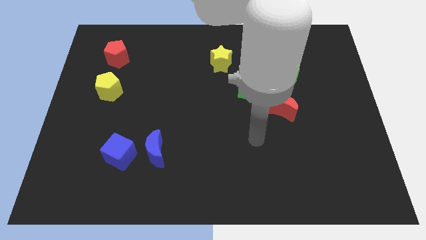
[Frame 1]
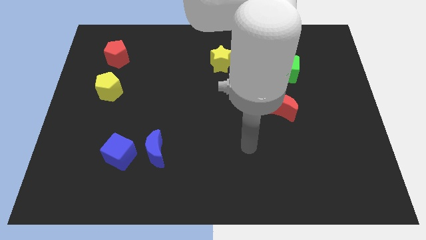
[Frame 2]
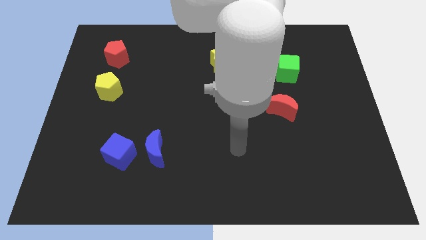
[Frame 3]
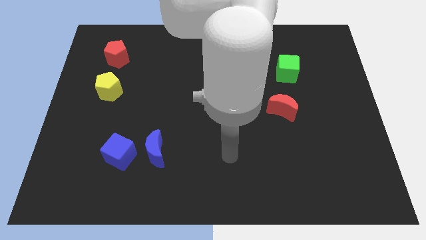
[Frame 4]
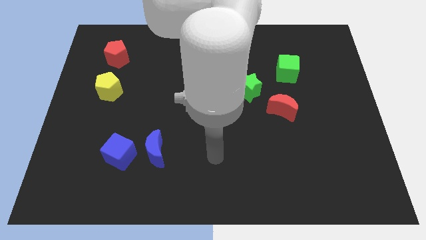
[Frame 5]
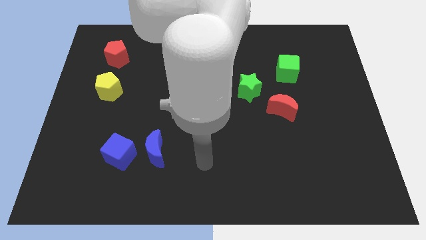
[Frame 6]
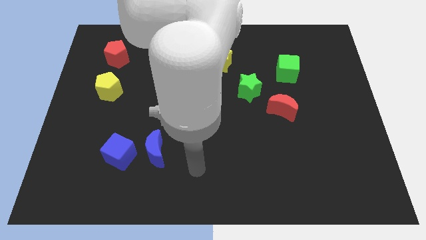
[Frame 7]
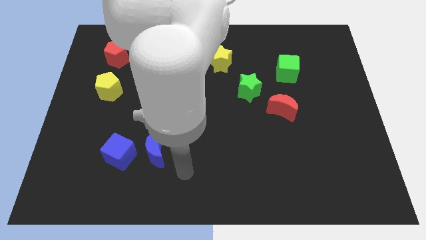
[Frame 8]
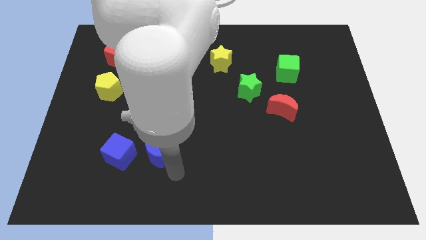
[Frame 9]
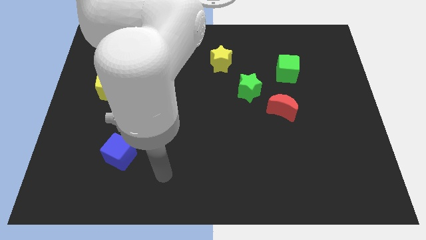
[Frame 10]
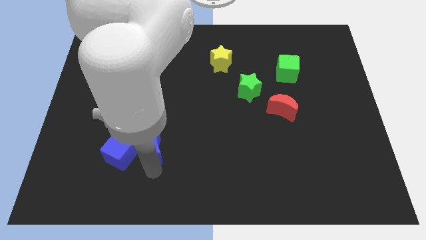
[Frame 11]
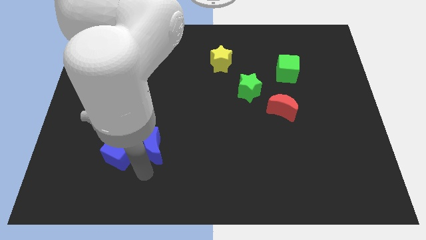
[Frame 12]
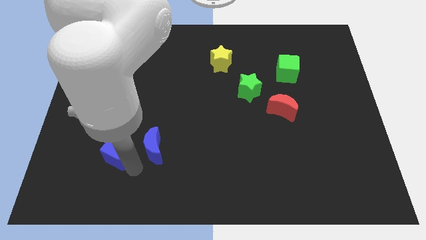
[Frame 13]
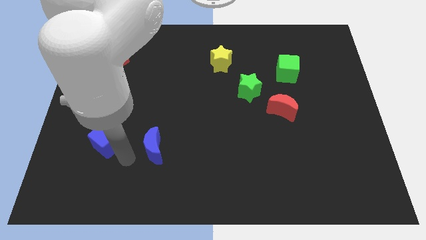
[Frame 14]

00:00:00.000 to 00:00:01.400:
separate the blue moon from the blue cube

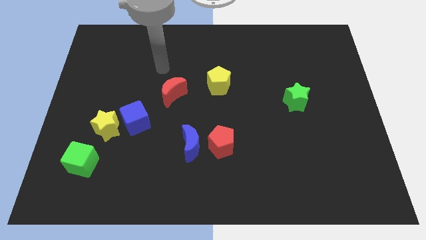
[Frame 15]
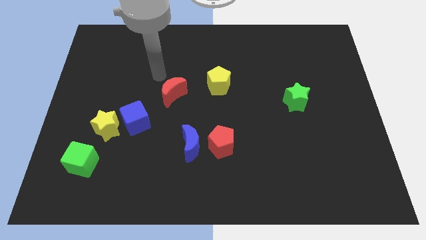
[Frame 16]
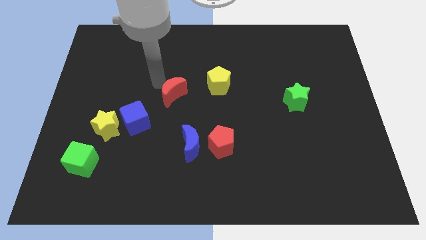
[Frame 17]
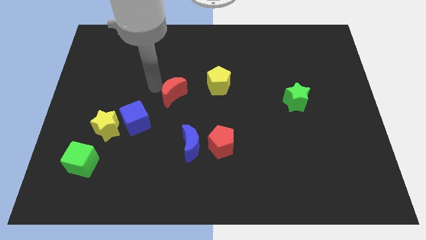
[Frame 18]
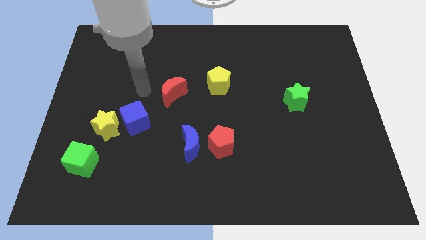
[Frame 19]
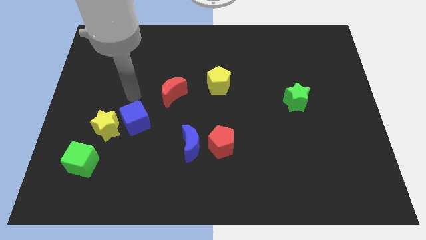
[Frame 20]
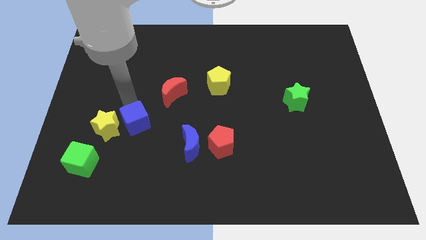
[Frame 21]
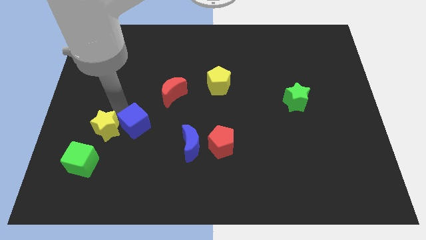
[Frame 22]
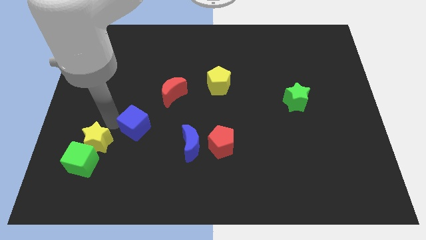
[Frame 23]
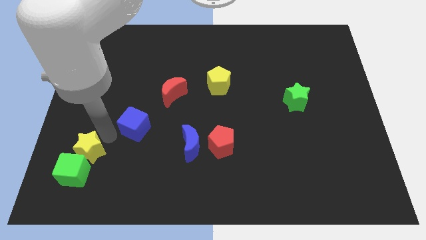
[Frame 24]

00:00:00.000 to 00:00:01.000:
pull the blue cube apart from the yellow star

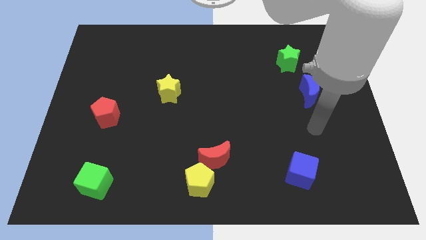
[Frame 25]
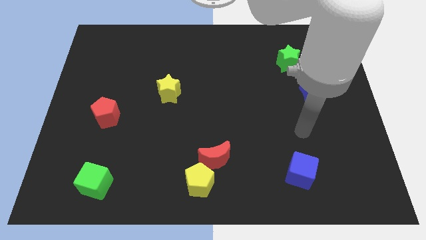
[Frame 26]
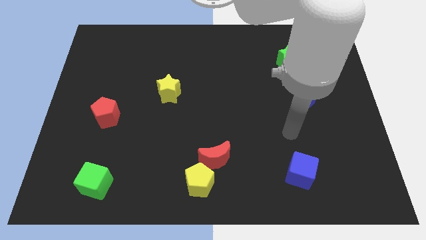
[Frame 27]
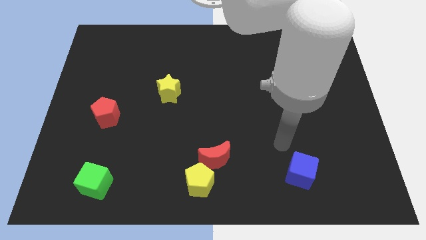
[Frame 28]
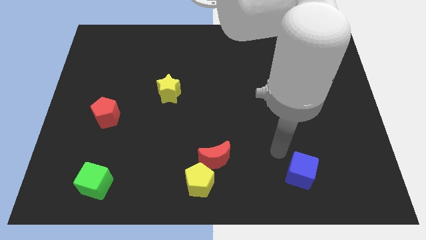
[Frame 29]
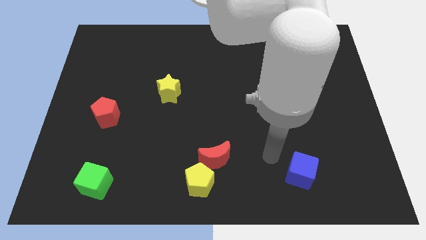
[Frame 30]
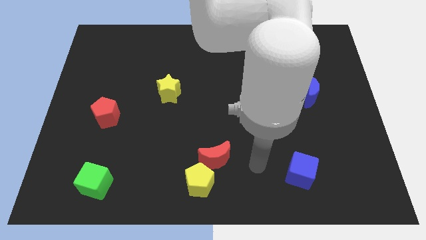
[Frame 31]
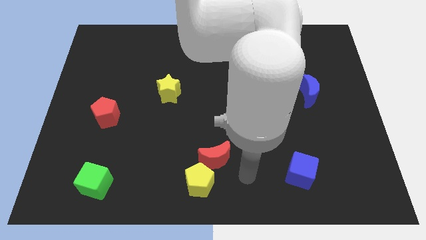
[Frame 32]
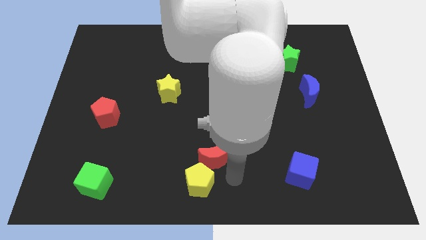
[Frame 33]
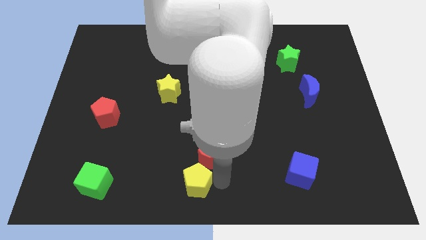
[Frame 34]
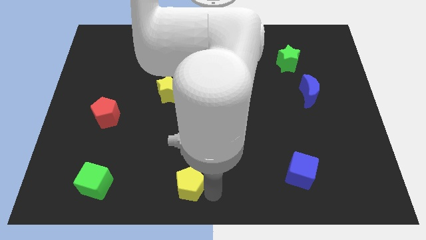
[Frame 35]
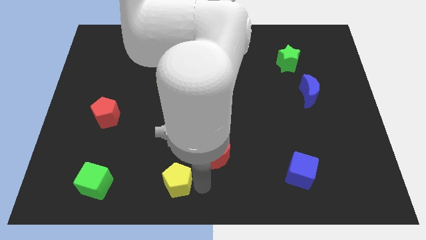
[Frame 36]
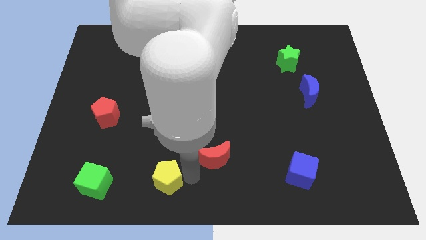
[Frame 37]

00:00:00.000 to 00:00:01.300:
move the red moon away from the yellow pentagon

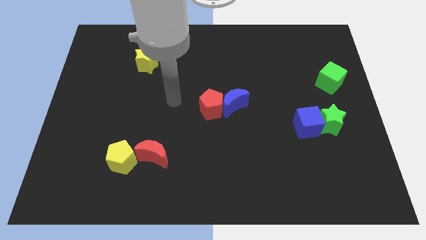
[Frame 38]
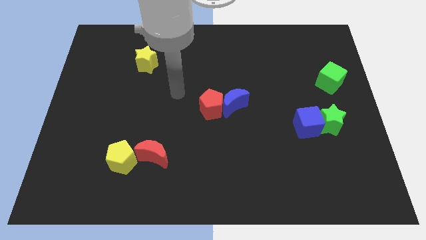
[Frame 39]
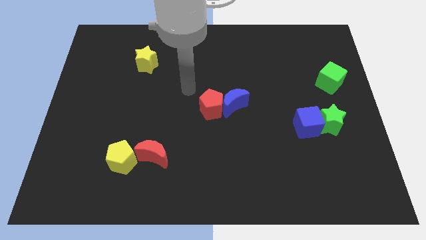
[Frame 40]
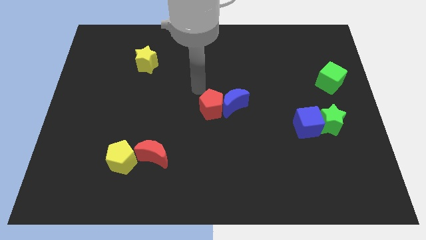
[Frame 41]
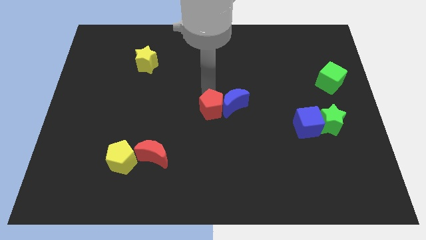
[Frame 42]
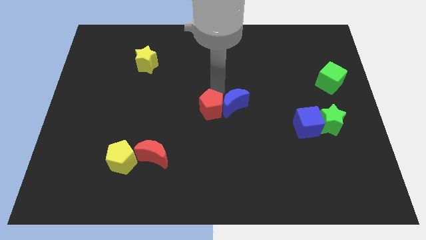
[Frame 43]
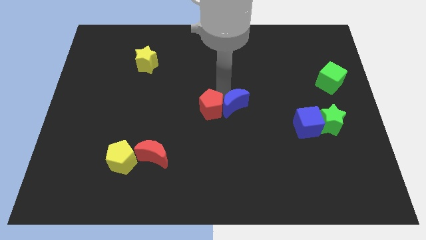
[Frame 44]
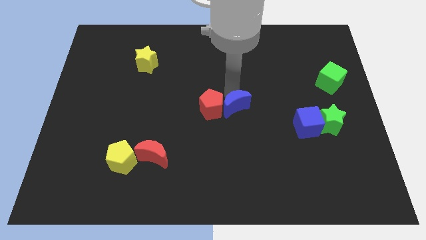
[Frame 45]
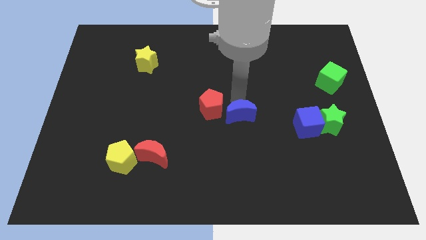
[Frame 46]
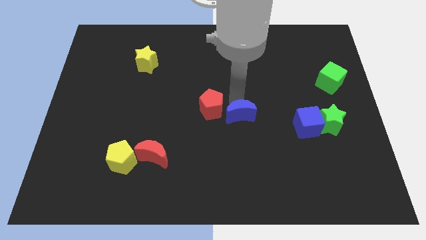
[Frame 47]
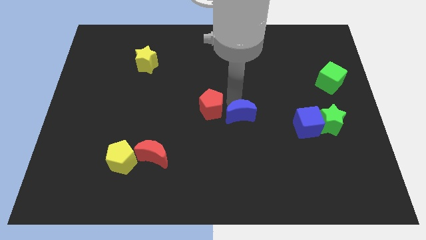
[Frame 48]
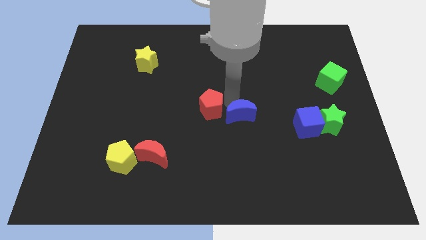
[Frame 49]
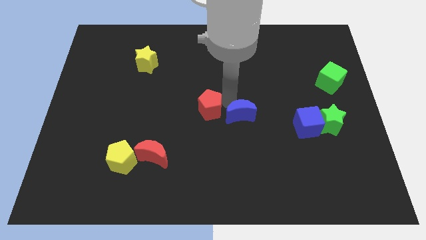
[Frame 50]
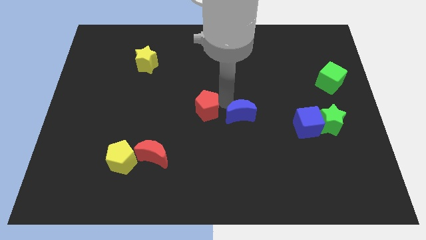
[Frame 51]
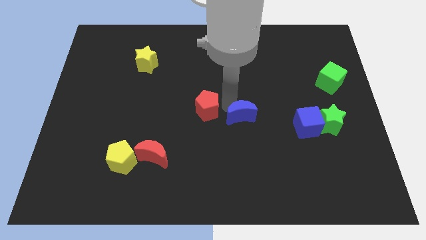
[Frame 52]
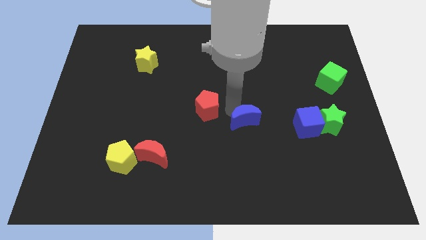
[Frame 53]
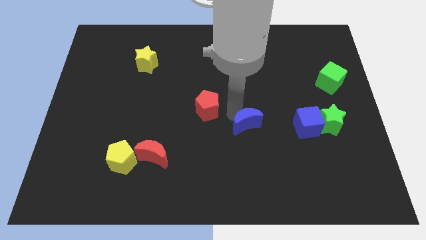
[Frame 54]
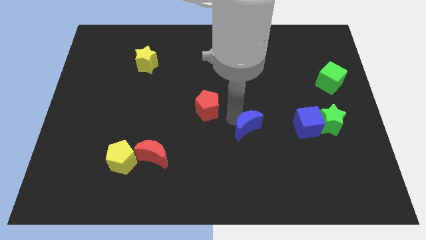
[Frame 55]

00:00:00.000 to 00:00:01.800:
move the red pentagon away from the blue moon

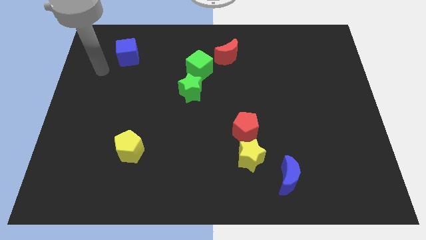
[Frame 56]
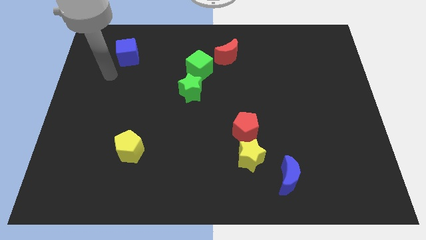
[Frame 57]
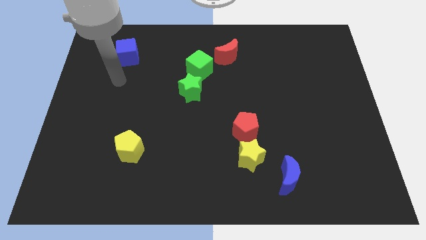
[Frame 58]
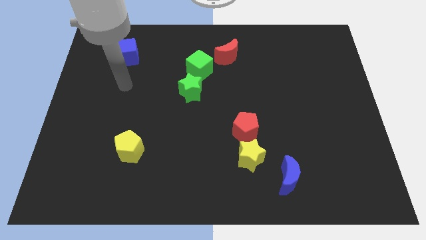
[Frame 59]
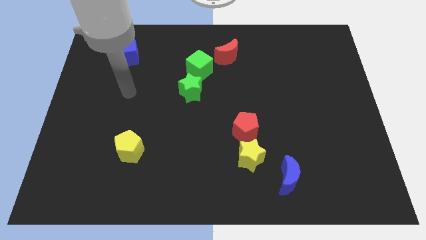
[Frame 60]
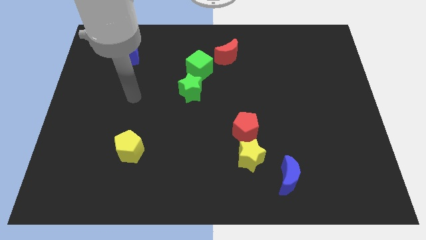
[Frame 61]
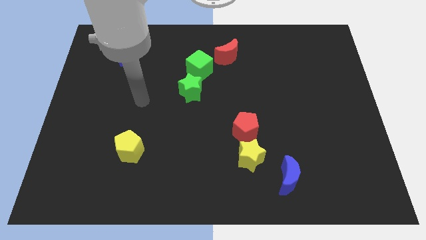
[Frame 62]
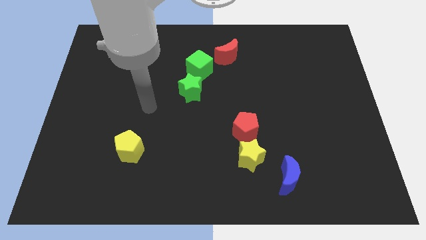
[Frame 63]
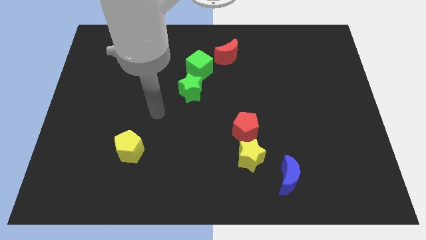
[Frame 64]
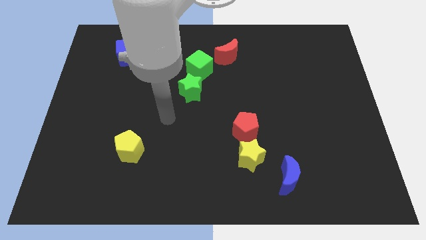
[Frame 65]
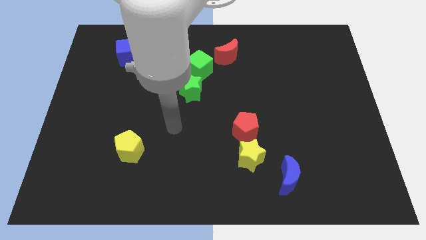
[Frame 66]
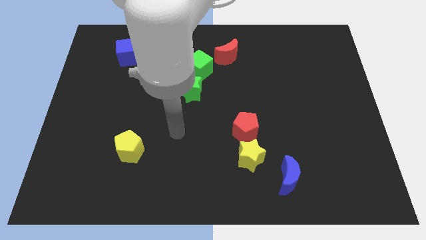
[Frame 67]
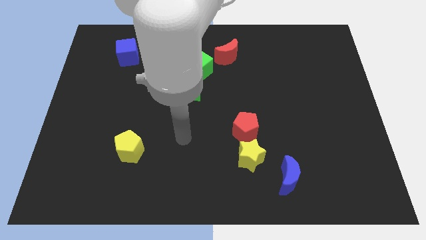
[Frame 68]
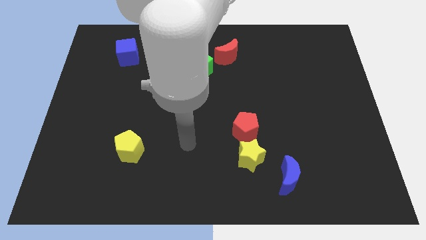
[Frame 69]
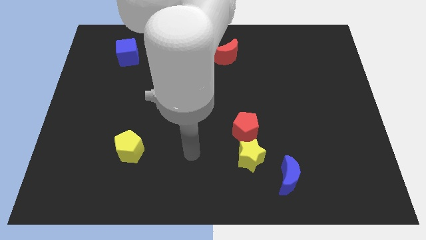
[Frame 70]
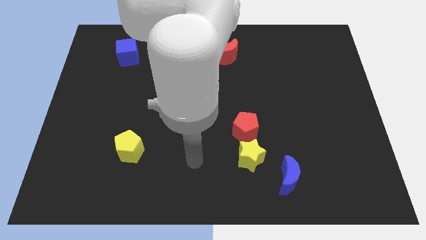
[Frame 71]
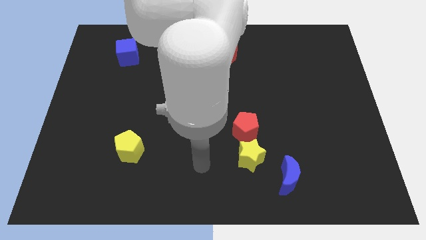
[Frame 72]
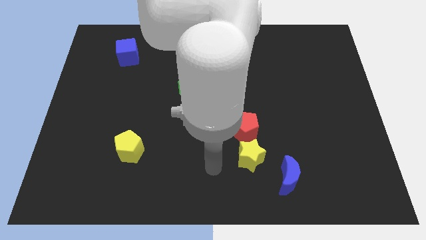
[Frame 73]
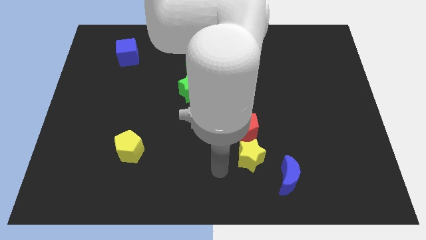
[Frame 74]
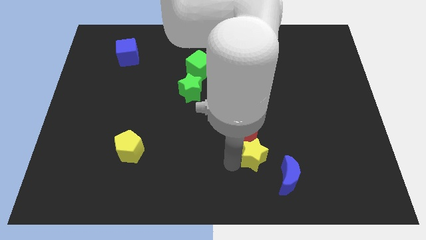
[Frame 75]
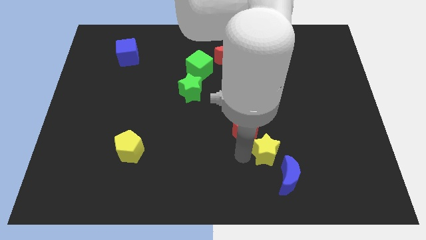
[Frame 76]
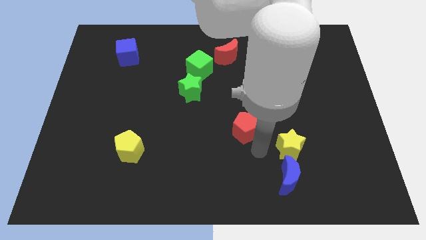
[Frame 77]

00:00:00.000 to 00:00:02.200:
separate the red pentagon from the yellow star

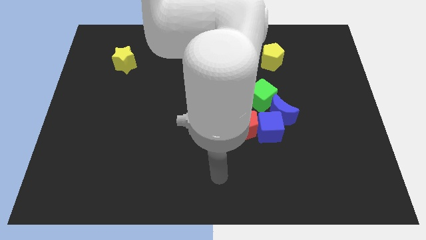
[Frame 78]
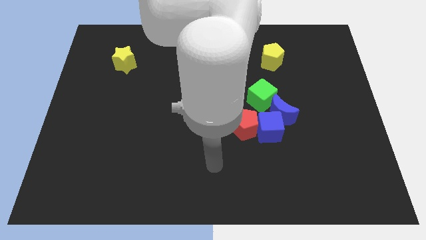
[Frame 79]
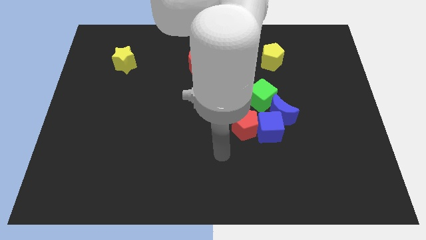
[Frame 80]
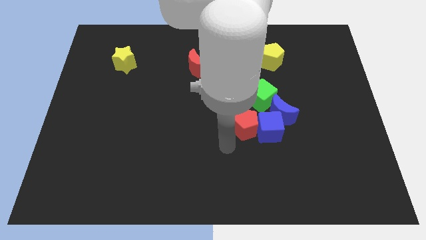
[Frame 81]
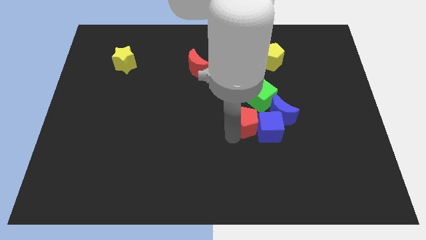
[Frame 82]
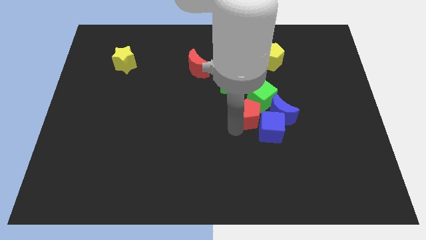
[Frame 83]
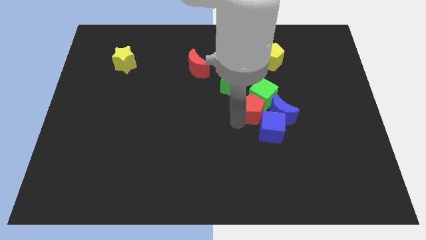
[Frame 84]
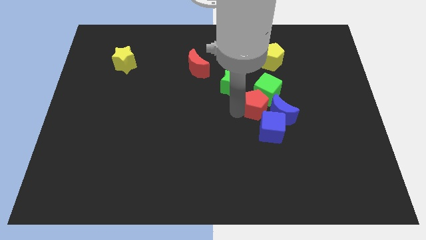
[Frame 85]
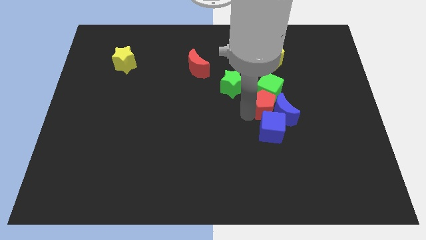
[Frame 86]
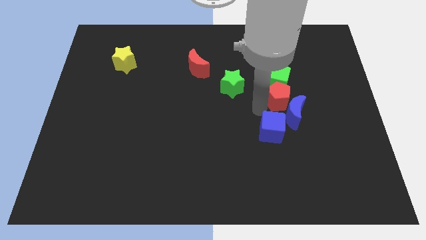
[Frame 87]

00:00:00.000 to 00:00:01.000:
move the blue cube away from the blue moon, red pentagon, and green cube

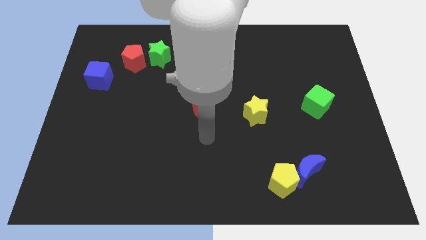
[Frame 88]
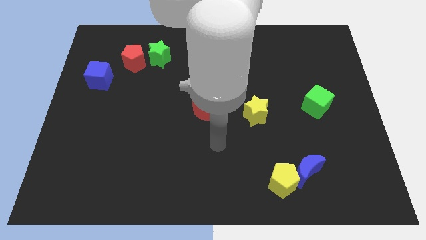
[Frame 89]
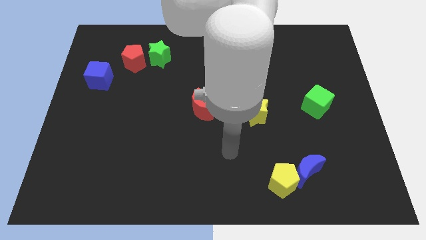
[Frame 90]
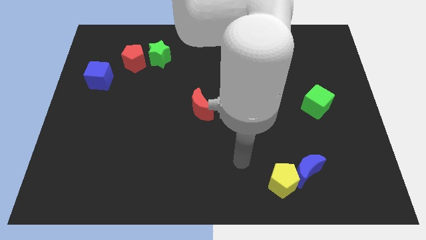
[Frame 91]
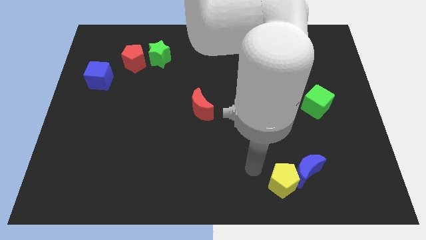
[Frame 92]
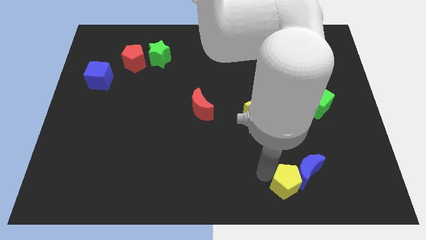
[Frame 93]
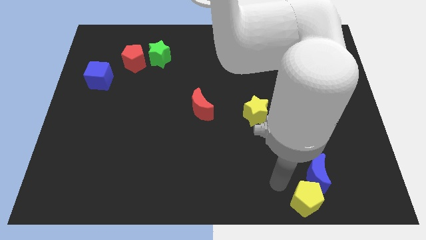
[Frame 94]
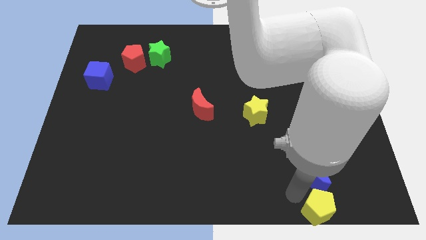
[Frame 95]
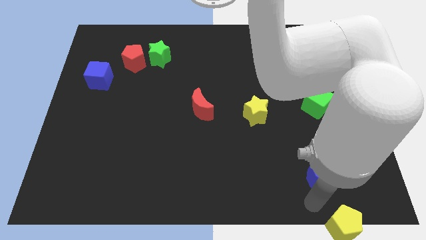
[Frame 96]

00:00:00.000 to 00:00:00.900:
move the blue moon away from the yellow pentagon
